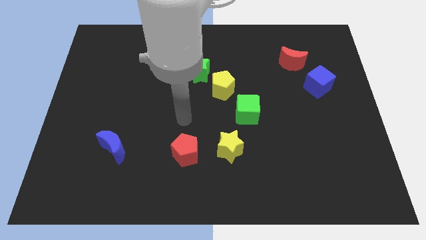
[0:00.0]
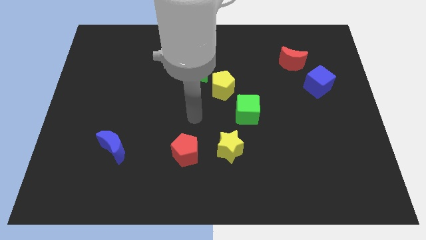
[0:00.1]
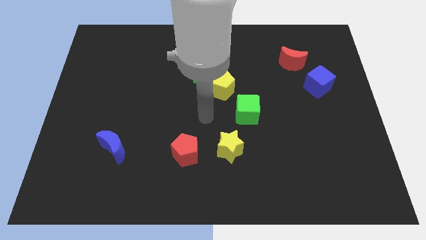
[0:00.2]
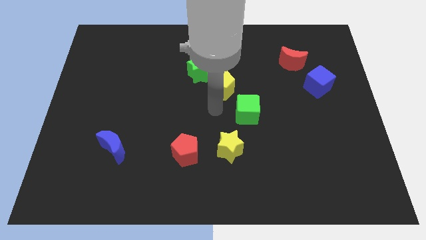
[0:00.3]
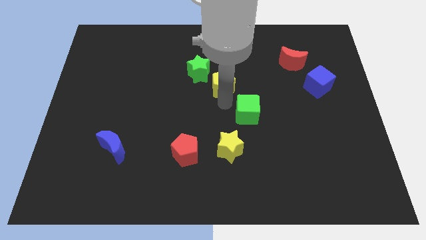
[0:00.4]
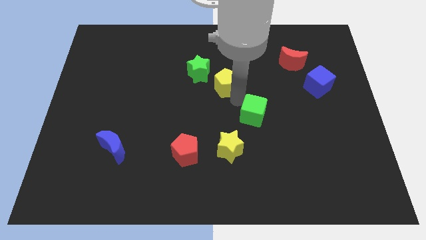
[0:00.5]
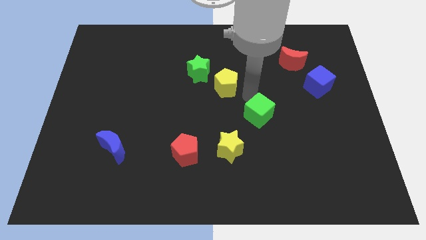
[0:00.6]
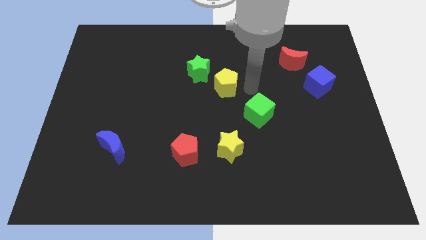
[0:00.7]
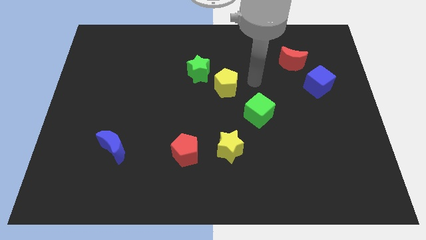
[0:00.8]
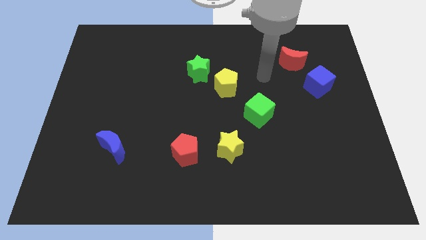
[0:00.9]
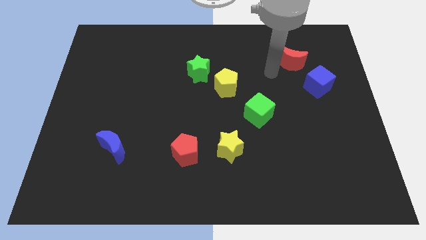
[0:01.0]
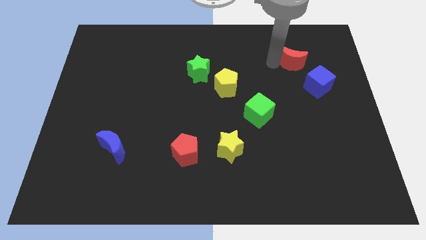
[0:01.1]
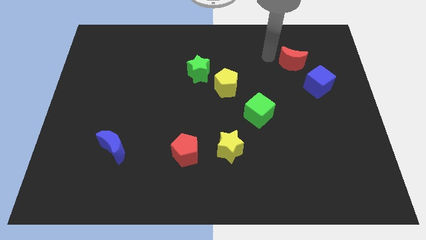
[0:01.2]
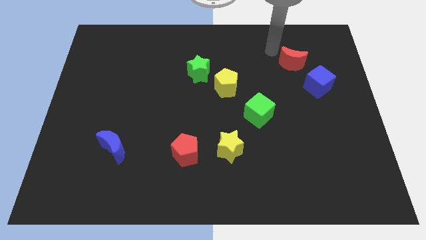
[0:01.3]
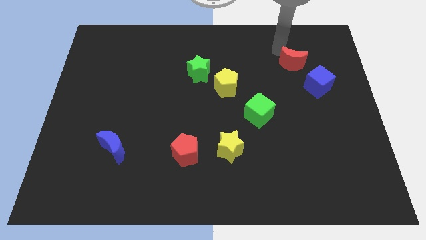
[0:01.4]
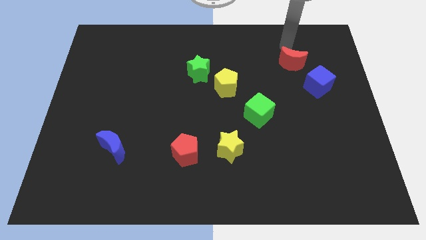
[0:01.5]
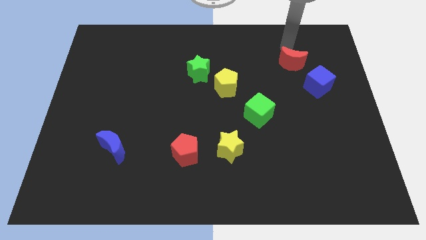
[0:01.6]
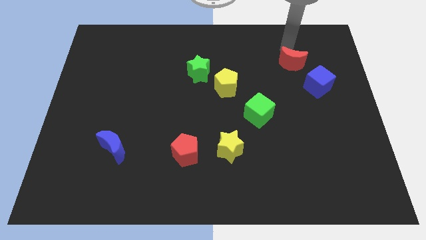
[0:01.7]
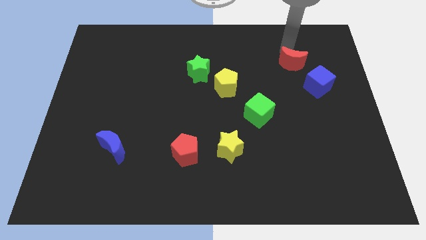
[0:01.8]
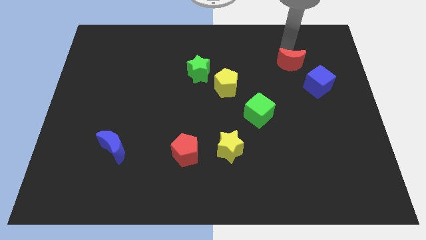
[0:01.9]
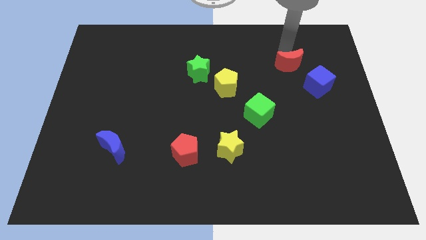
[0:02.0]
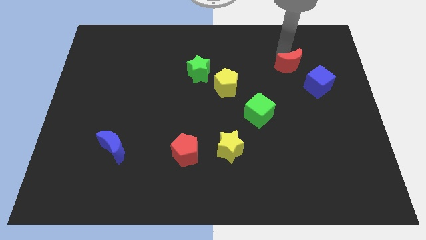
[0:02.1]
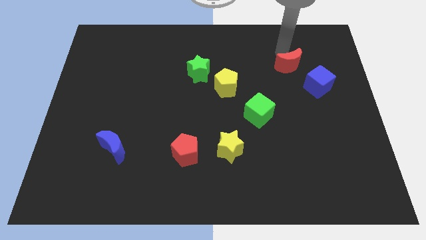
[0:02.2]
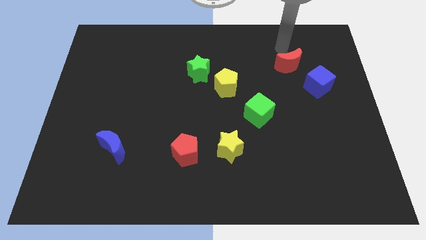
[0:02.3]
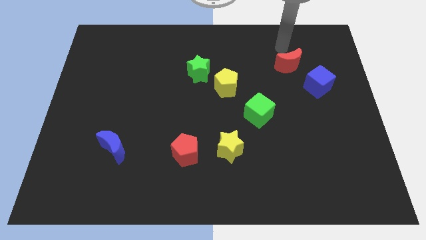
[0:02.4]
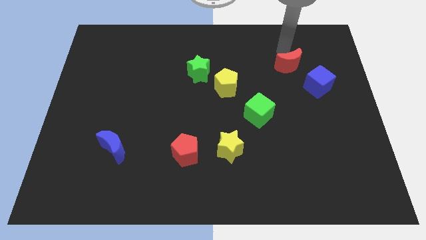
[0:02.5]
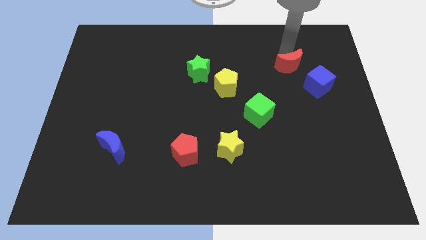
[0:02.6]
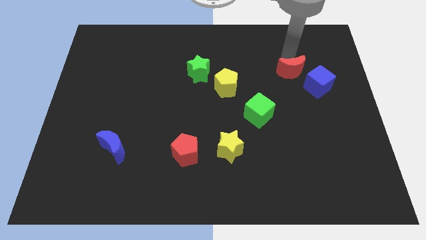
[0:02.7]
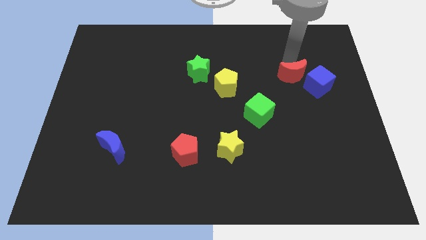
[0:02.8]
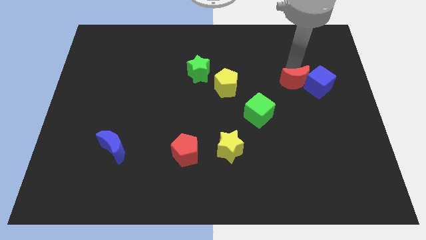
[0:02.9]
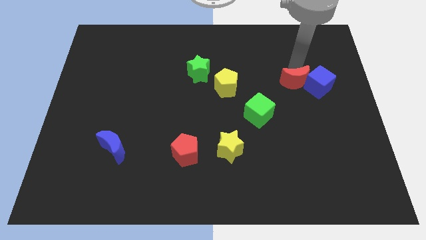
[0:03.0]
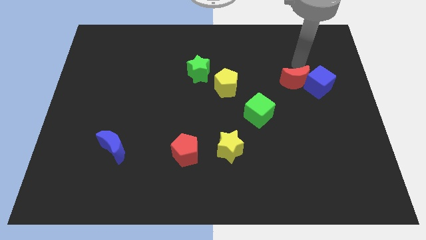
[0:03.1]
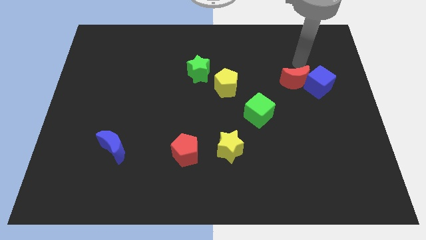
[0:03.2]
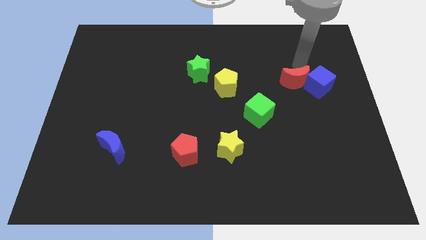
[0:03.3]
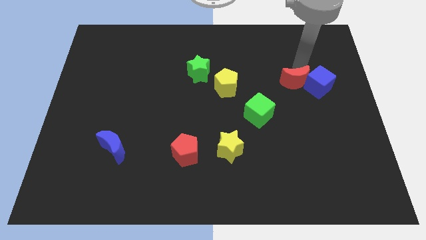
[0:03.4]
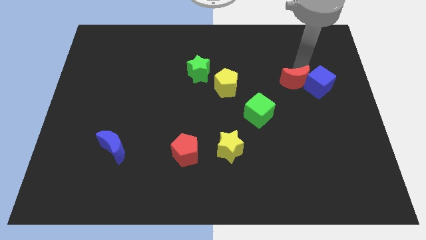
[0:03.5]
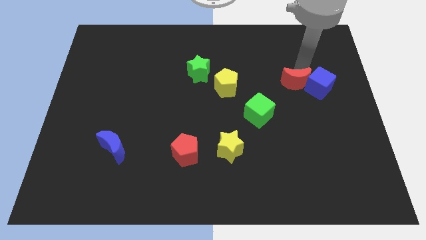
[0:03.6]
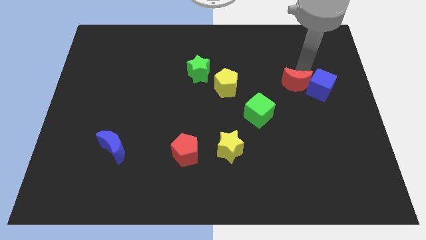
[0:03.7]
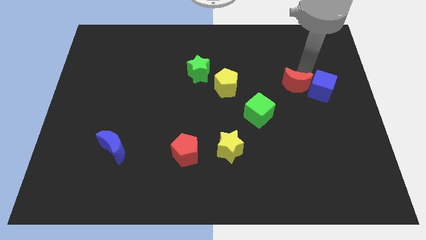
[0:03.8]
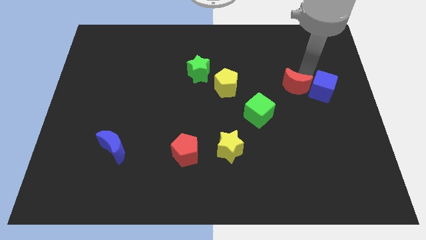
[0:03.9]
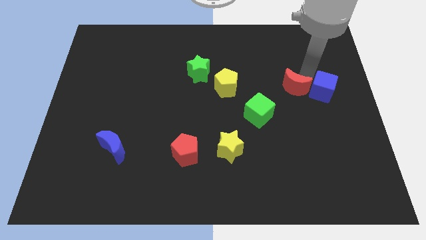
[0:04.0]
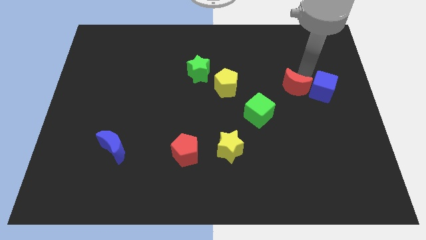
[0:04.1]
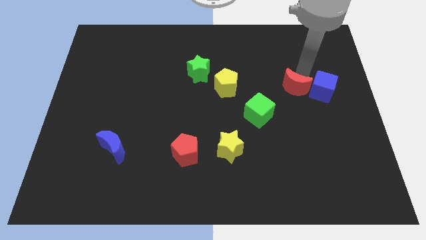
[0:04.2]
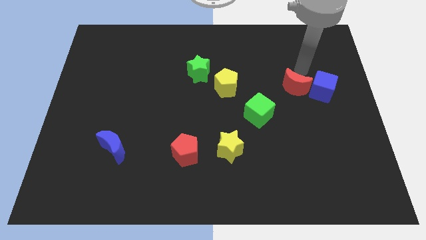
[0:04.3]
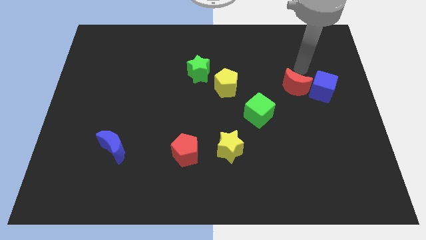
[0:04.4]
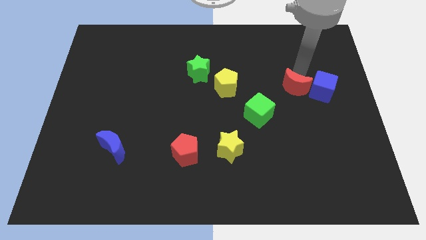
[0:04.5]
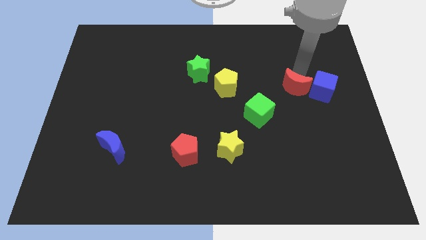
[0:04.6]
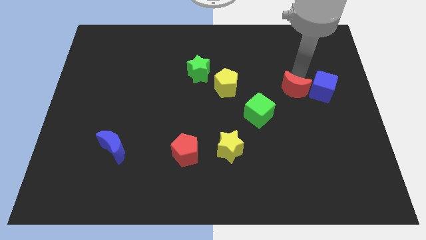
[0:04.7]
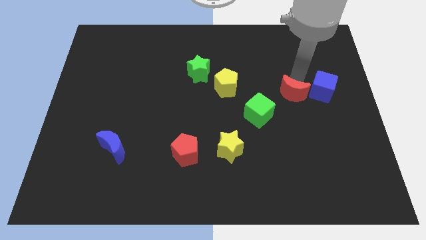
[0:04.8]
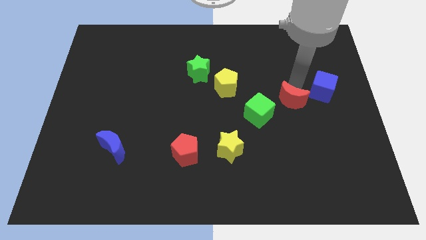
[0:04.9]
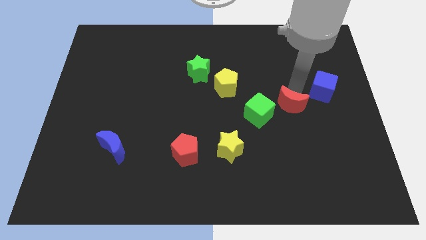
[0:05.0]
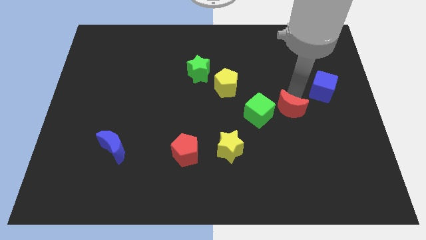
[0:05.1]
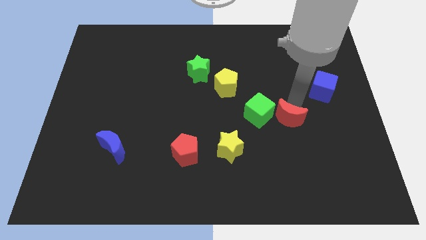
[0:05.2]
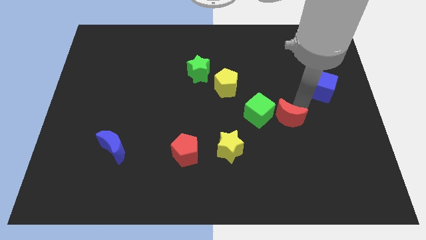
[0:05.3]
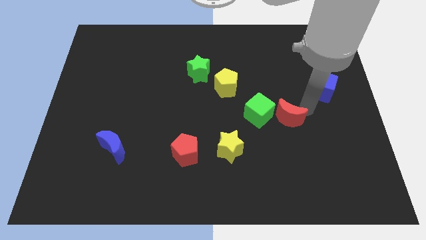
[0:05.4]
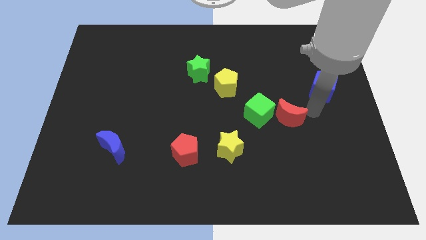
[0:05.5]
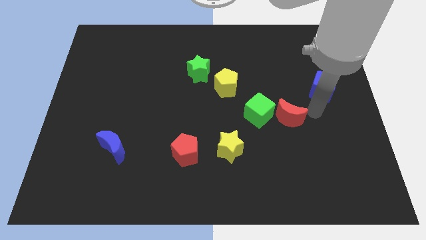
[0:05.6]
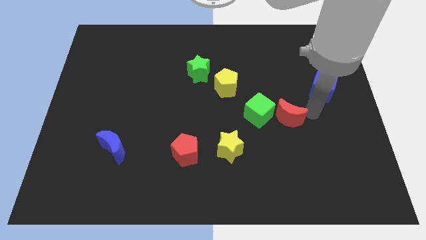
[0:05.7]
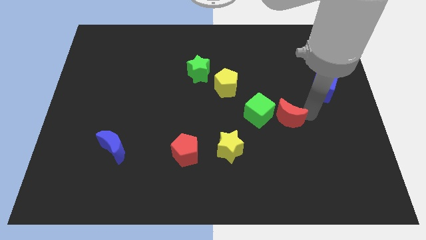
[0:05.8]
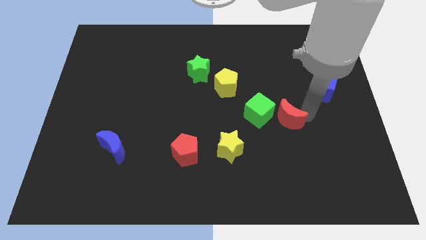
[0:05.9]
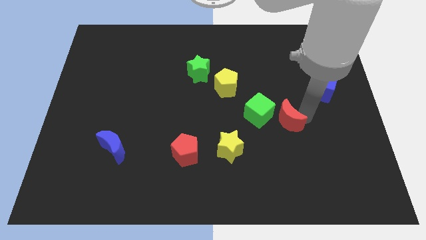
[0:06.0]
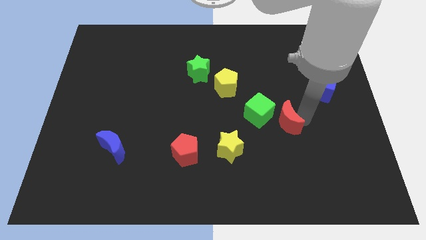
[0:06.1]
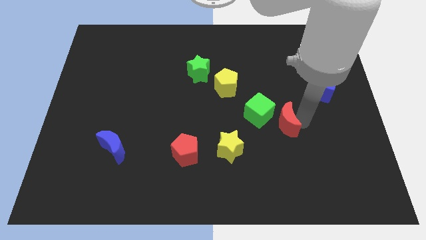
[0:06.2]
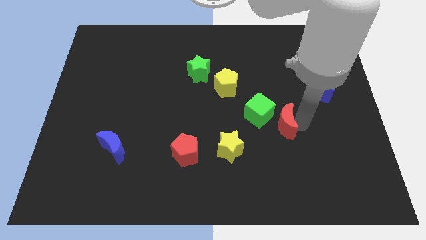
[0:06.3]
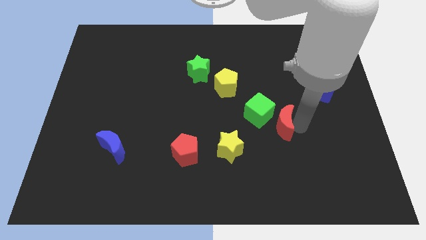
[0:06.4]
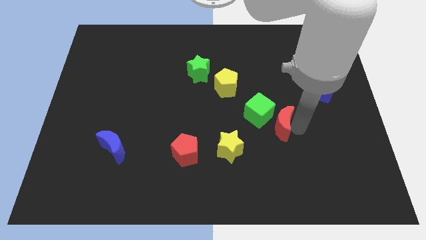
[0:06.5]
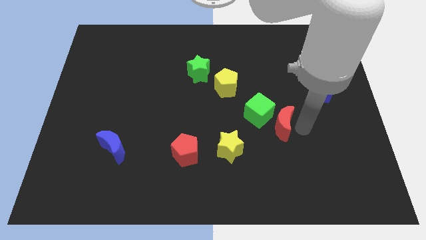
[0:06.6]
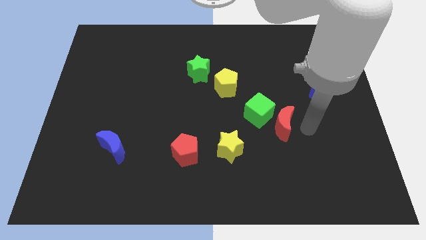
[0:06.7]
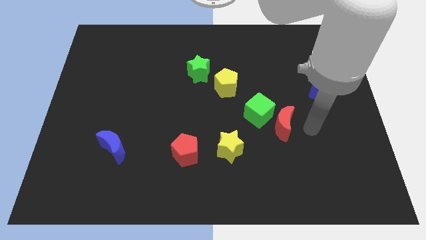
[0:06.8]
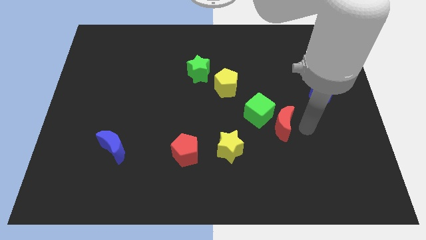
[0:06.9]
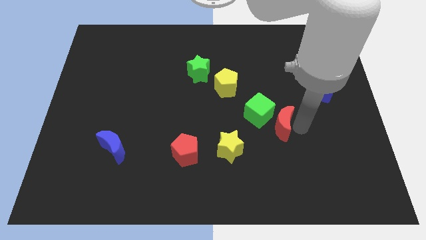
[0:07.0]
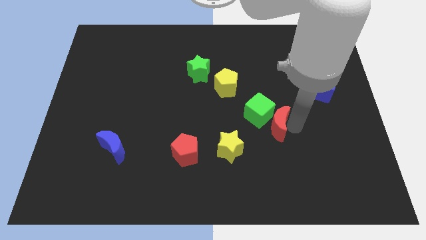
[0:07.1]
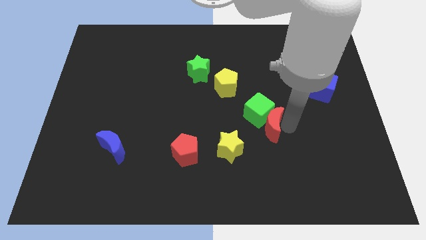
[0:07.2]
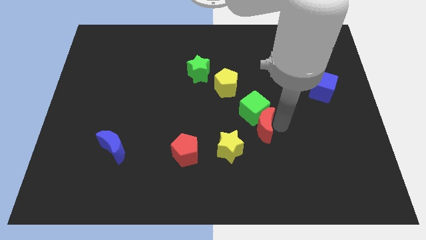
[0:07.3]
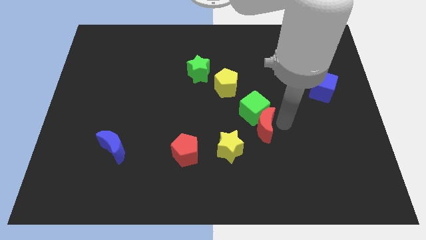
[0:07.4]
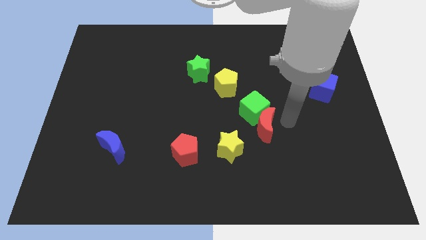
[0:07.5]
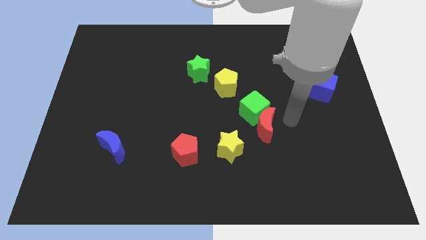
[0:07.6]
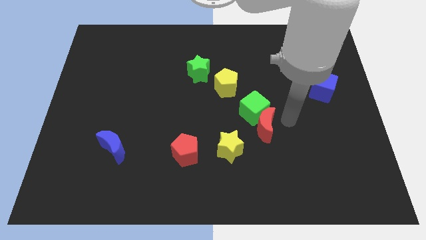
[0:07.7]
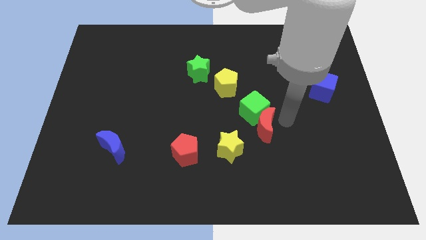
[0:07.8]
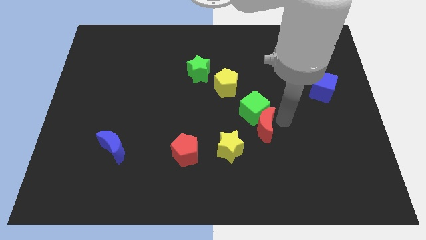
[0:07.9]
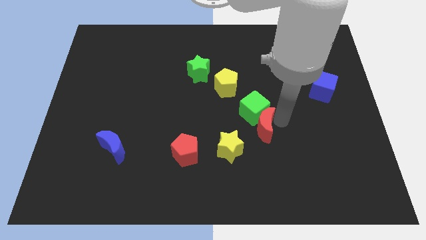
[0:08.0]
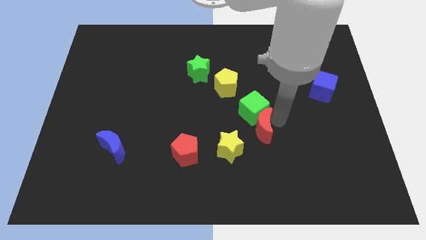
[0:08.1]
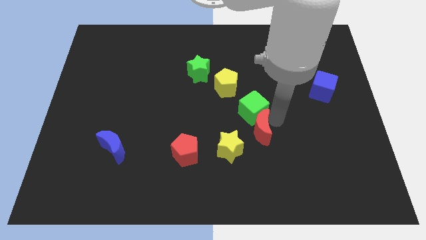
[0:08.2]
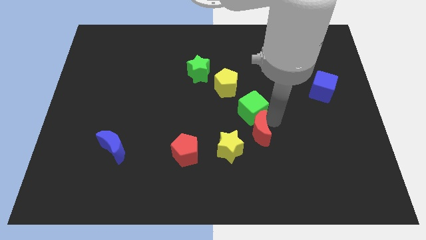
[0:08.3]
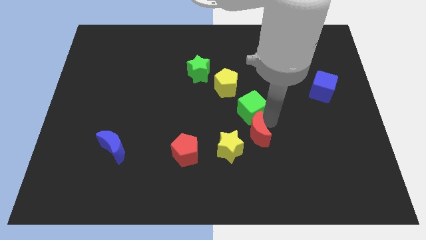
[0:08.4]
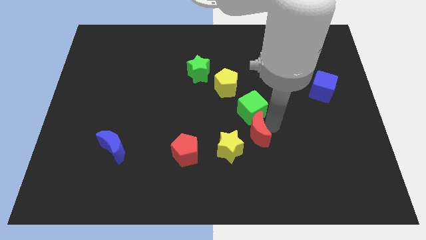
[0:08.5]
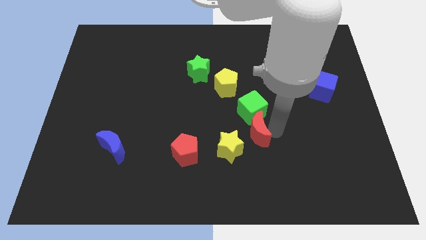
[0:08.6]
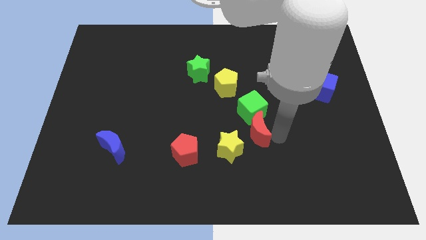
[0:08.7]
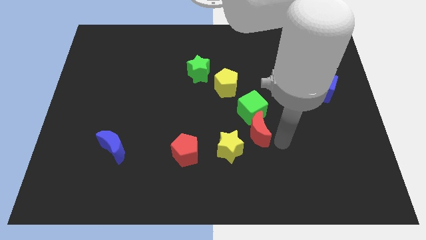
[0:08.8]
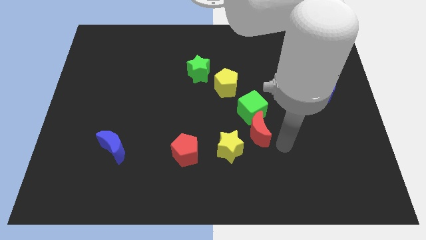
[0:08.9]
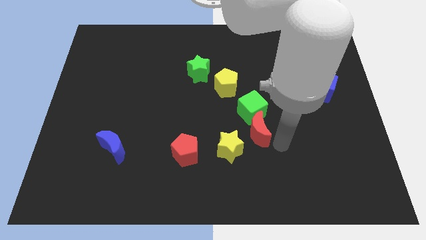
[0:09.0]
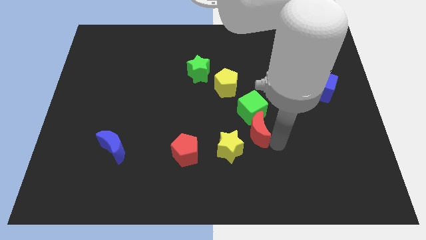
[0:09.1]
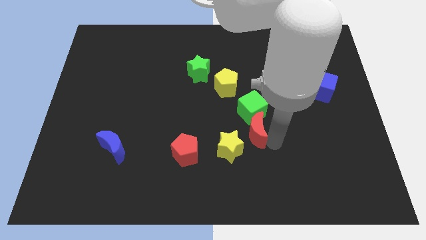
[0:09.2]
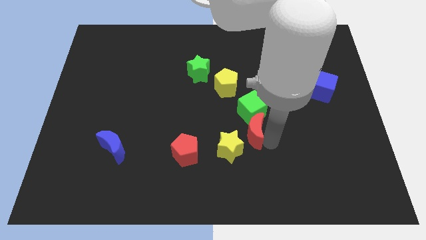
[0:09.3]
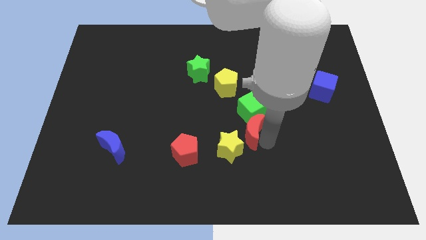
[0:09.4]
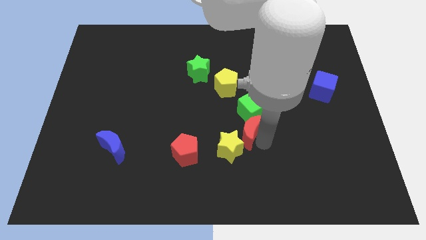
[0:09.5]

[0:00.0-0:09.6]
push the red moon to the middle of the board
